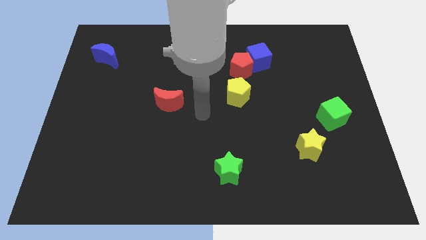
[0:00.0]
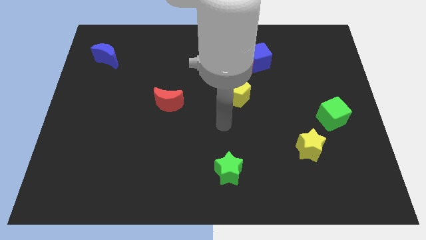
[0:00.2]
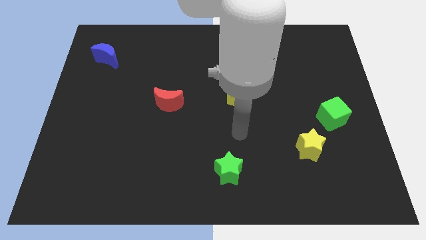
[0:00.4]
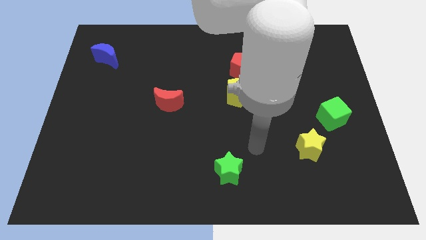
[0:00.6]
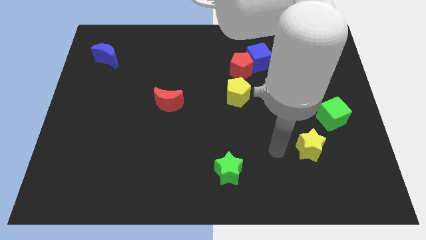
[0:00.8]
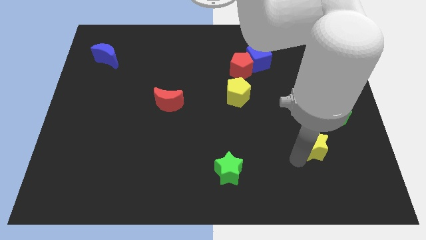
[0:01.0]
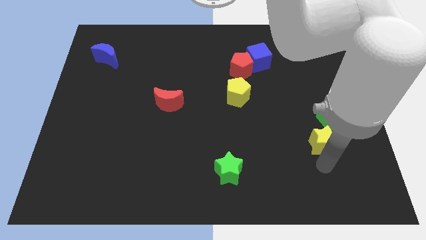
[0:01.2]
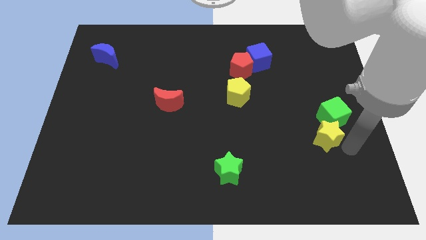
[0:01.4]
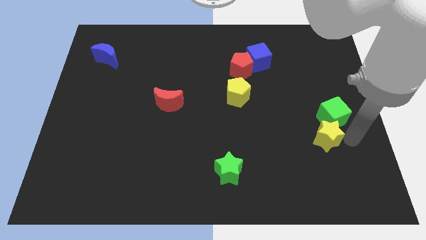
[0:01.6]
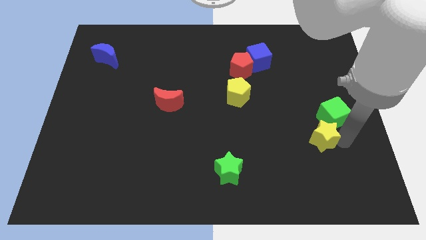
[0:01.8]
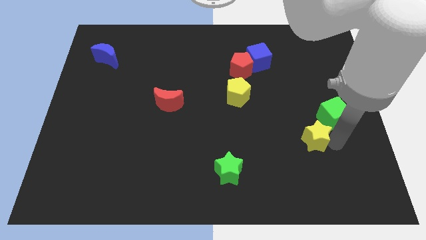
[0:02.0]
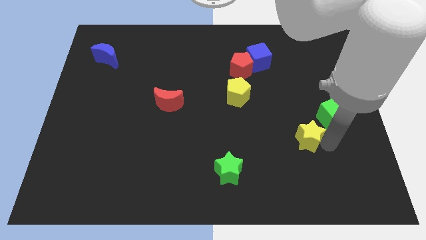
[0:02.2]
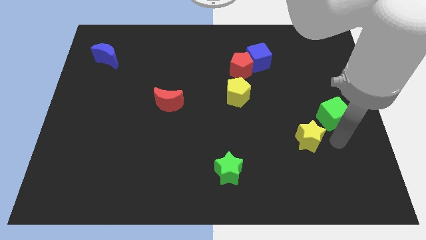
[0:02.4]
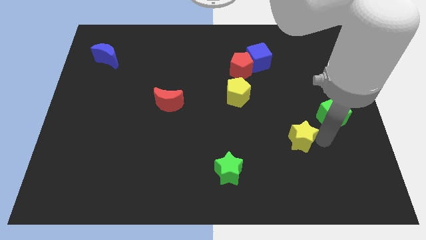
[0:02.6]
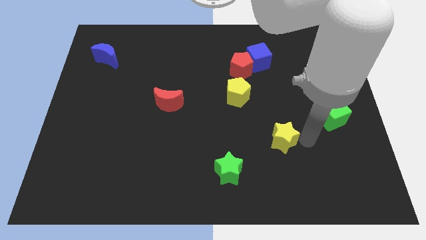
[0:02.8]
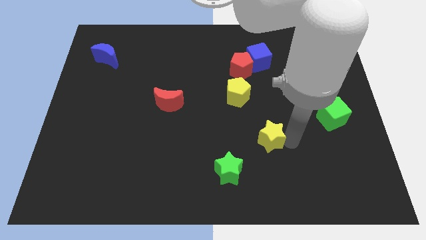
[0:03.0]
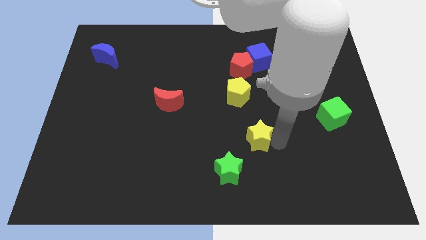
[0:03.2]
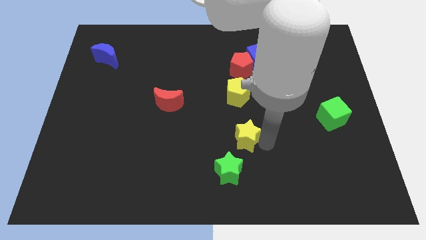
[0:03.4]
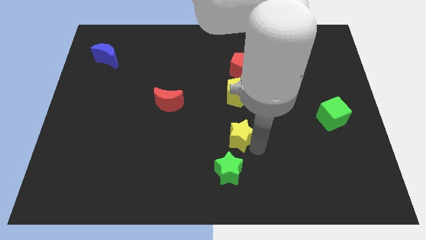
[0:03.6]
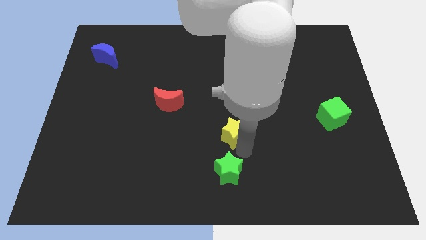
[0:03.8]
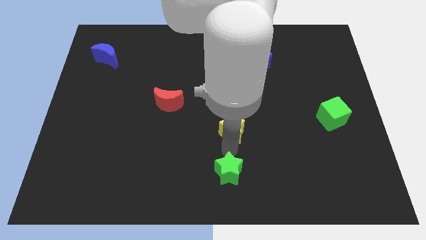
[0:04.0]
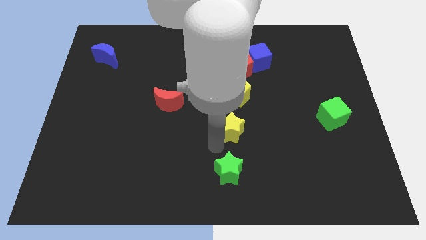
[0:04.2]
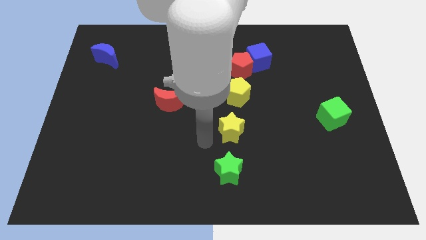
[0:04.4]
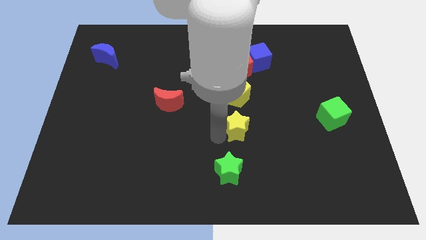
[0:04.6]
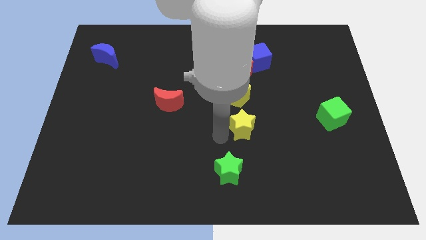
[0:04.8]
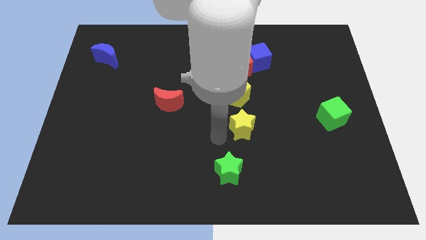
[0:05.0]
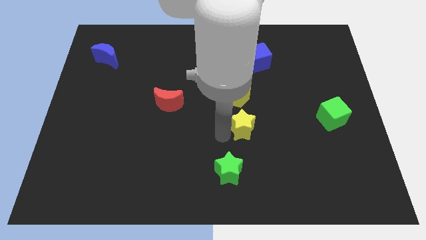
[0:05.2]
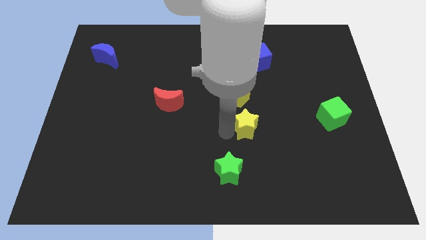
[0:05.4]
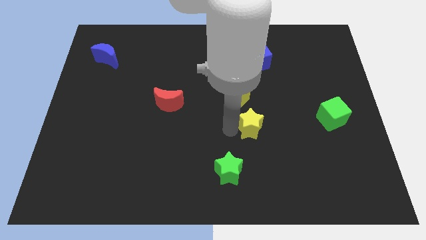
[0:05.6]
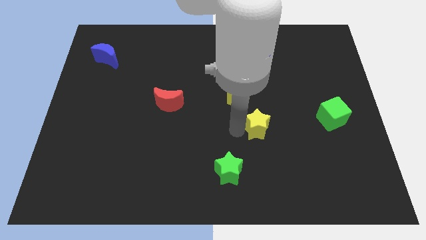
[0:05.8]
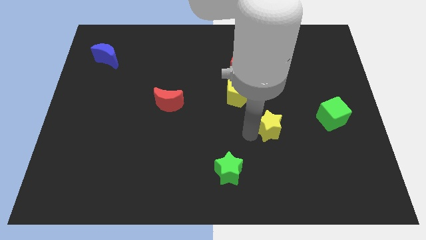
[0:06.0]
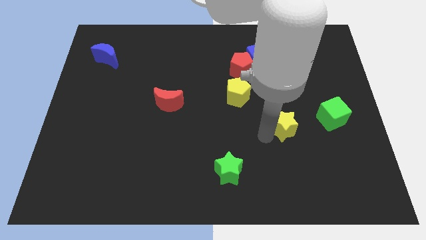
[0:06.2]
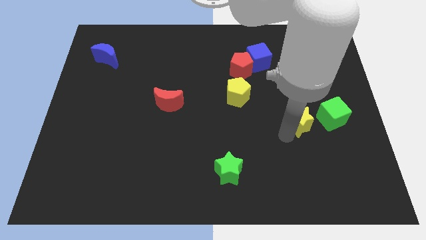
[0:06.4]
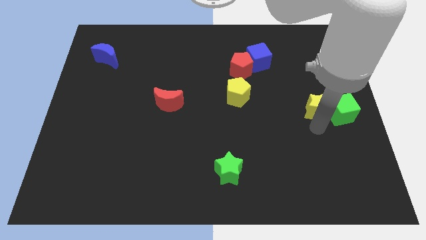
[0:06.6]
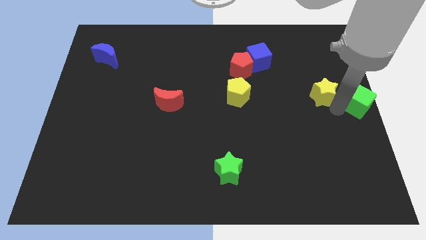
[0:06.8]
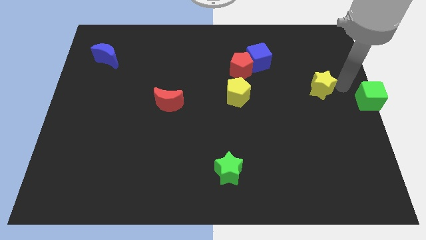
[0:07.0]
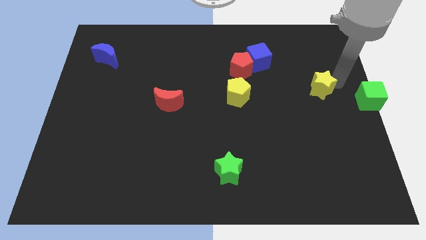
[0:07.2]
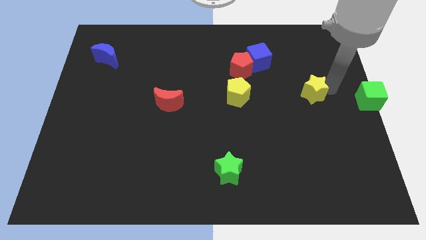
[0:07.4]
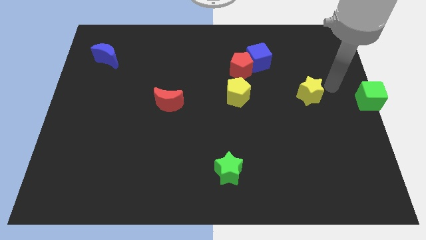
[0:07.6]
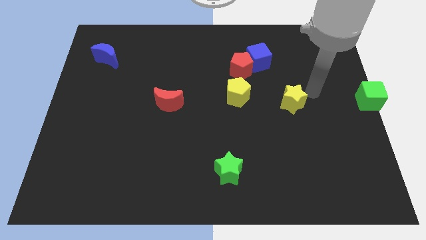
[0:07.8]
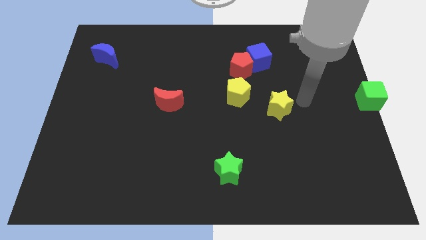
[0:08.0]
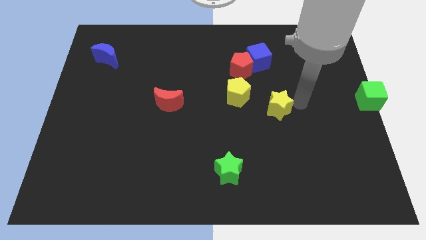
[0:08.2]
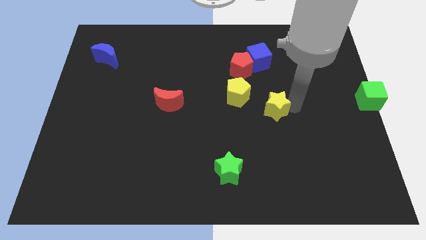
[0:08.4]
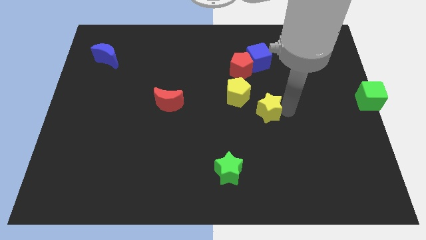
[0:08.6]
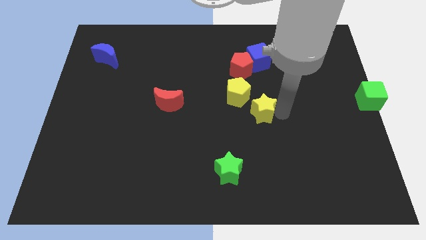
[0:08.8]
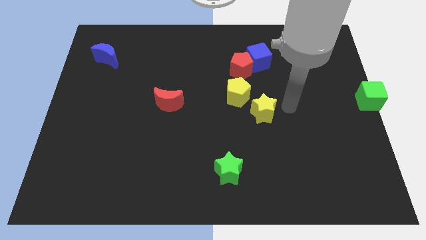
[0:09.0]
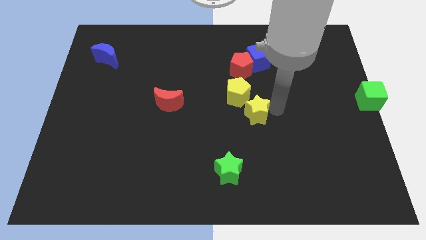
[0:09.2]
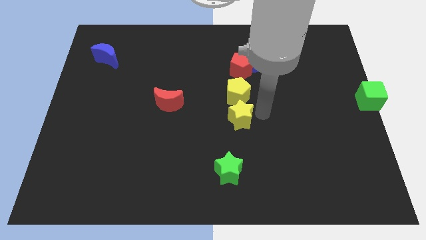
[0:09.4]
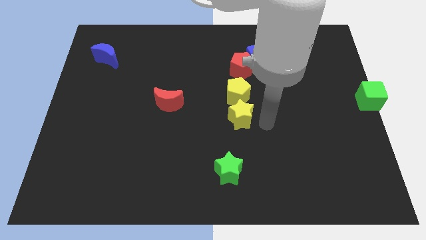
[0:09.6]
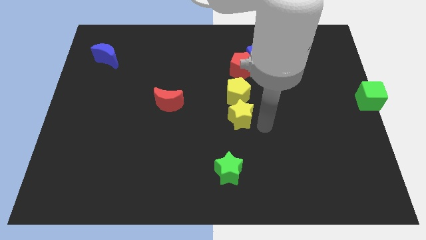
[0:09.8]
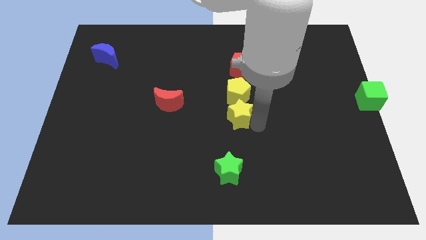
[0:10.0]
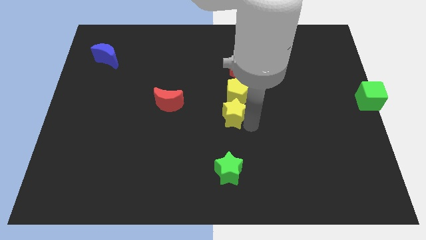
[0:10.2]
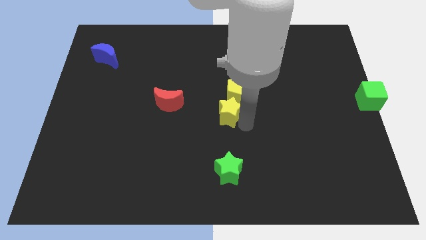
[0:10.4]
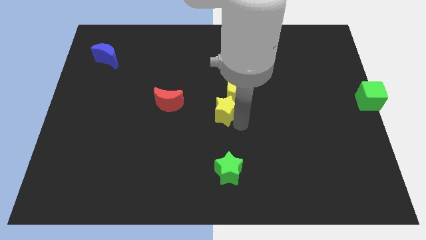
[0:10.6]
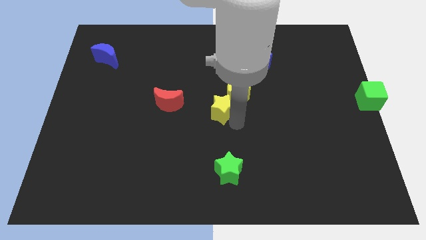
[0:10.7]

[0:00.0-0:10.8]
push the yellow star just left of the yellow pentagon
